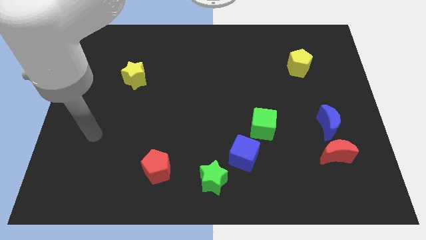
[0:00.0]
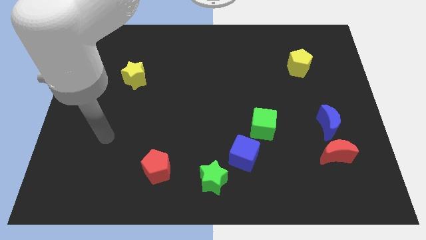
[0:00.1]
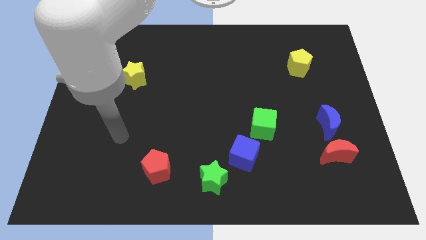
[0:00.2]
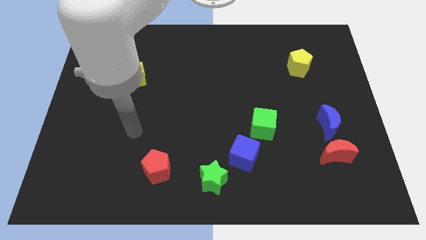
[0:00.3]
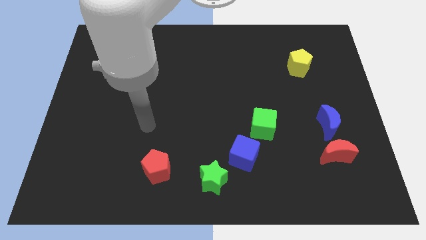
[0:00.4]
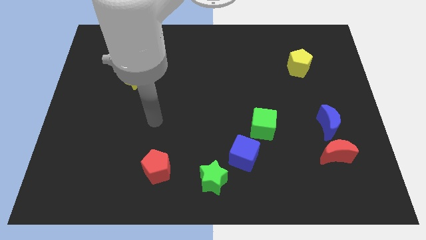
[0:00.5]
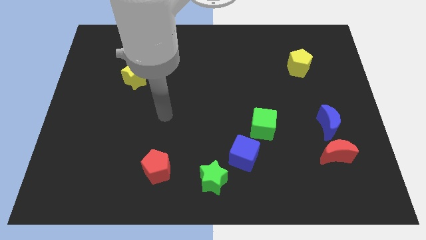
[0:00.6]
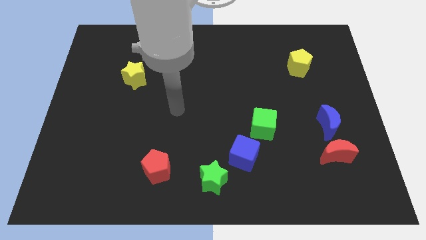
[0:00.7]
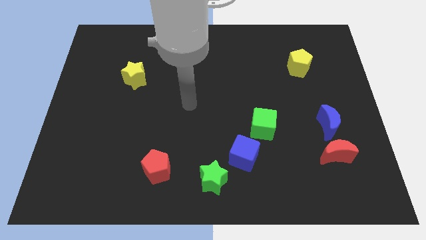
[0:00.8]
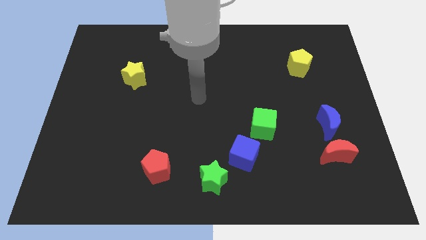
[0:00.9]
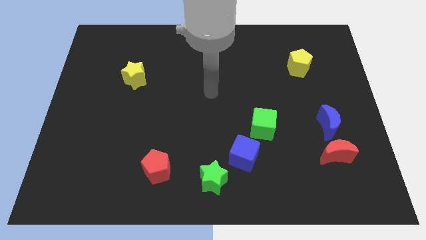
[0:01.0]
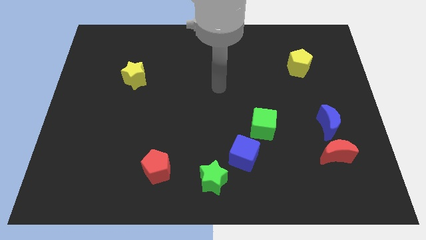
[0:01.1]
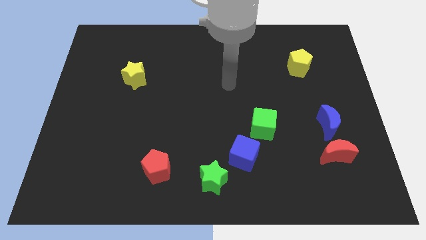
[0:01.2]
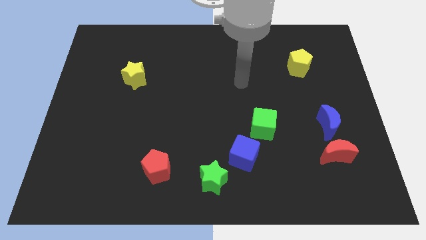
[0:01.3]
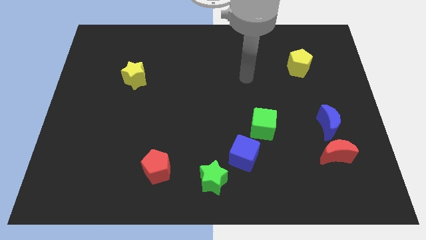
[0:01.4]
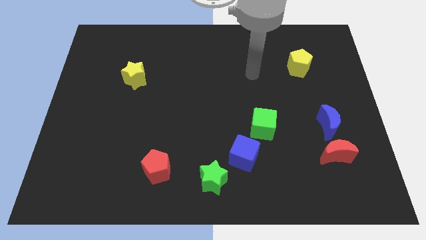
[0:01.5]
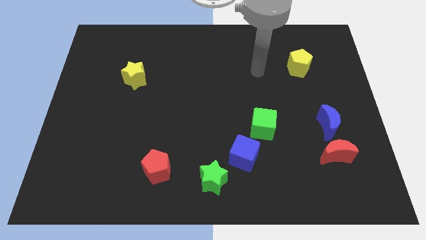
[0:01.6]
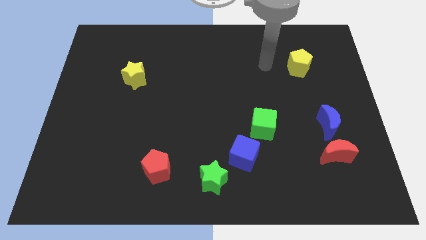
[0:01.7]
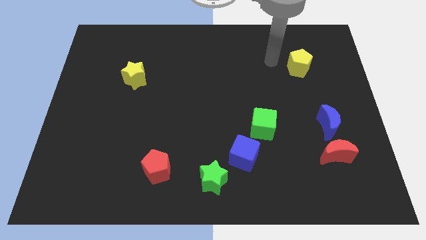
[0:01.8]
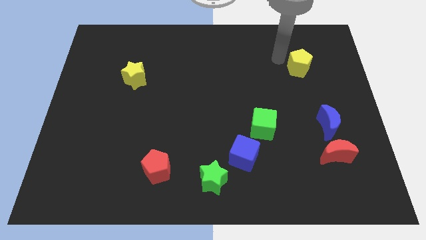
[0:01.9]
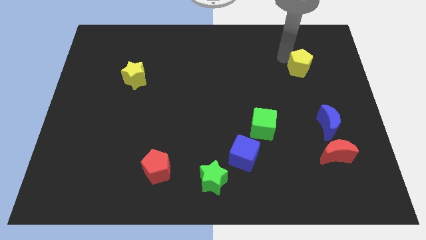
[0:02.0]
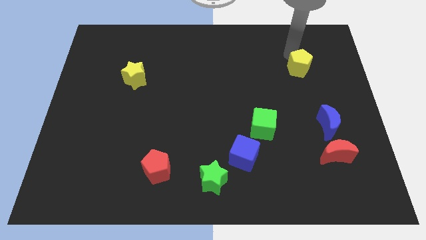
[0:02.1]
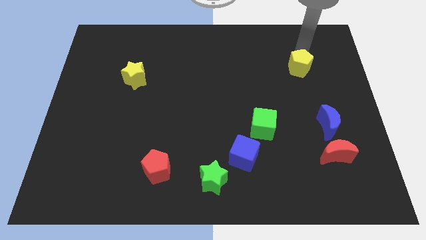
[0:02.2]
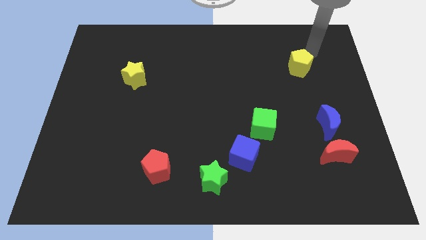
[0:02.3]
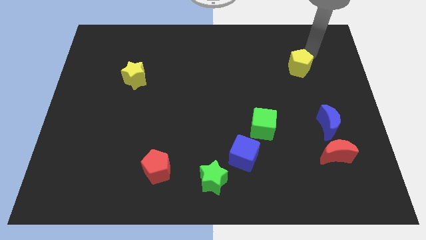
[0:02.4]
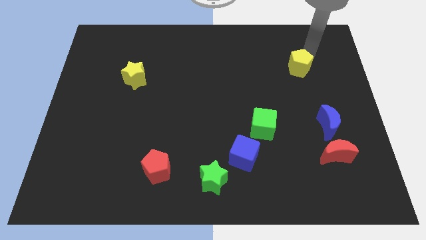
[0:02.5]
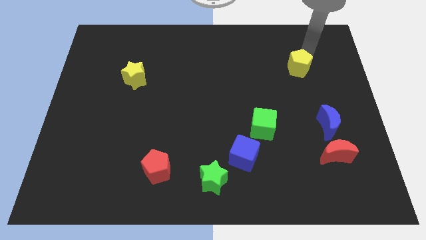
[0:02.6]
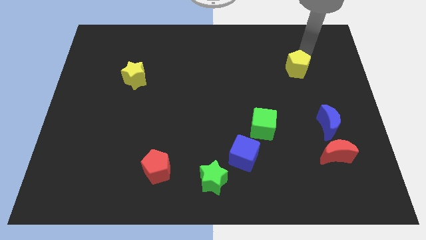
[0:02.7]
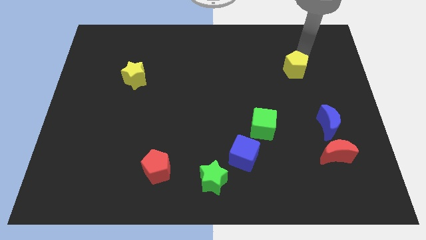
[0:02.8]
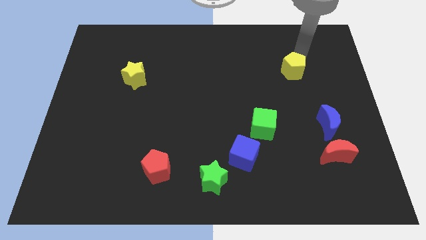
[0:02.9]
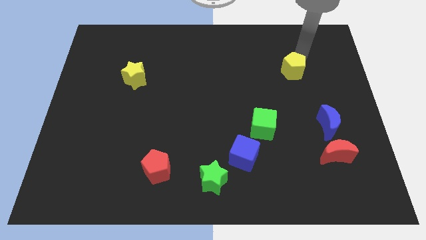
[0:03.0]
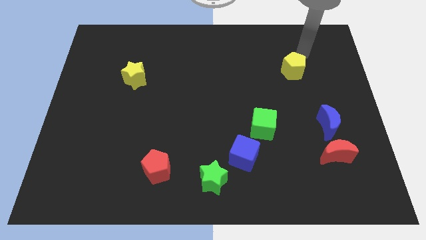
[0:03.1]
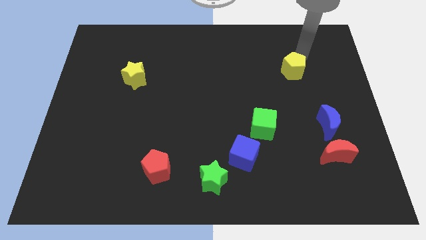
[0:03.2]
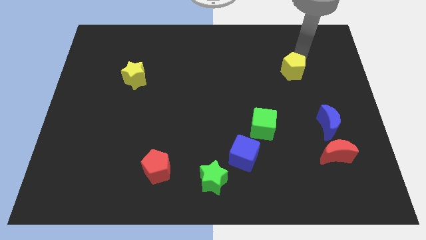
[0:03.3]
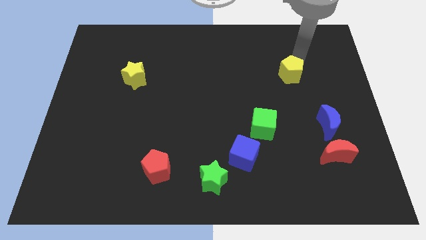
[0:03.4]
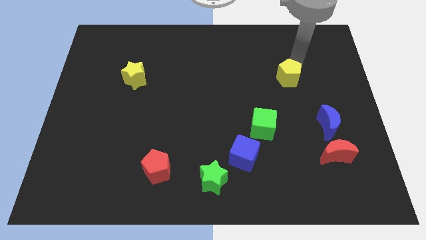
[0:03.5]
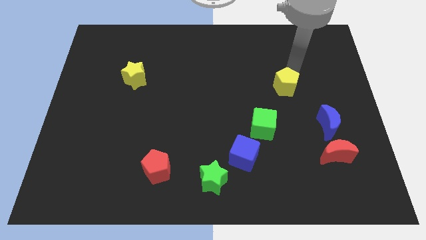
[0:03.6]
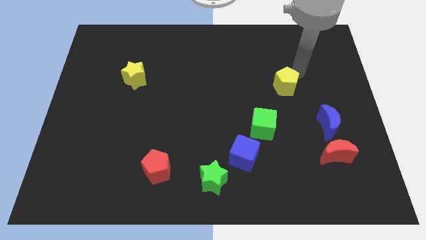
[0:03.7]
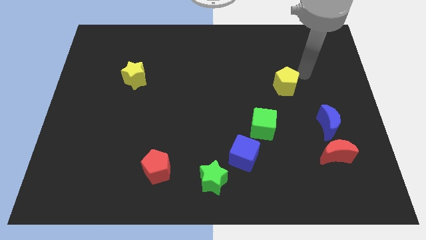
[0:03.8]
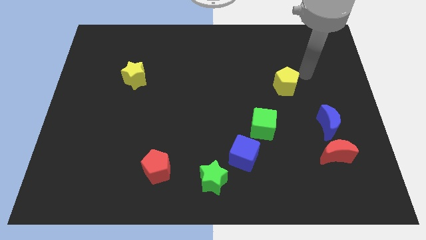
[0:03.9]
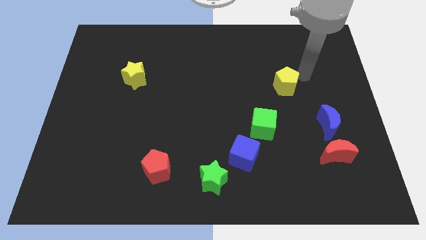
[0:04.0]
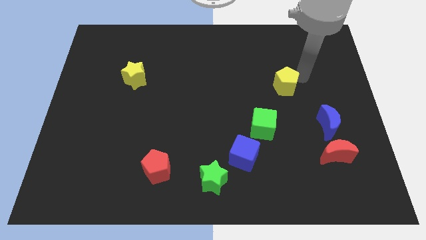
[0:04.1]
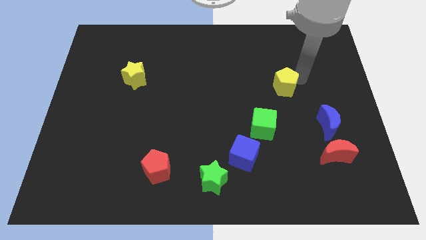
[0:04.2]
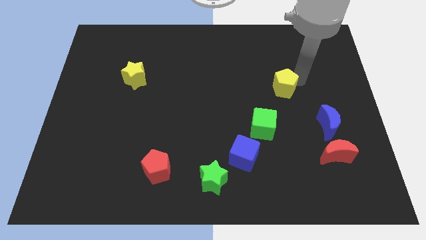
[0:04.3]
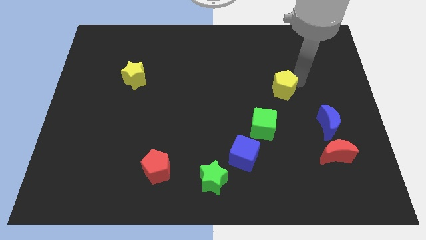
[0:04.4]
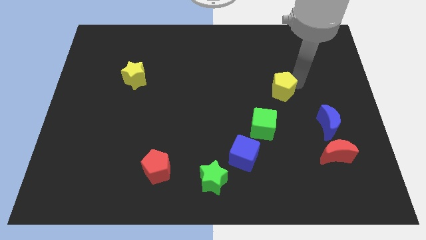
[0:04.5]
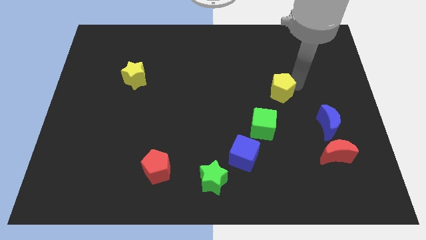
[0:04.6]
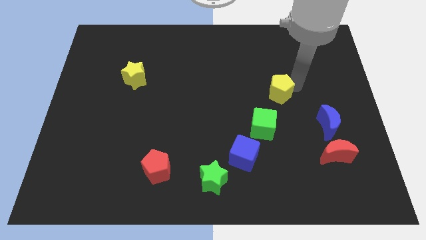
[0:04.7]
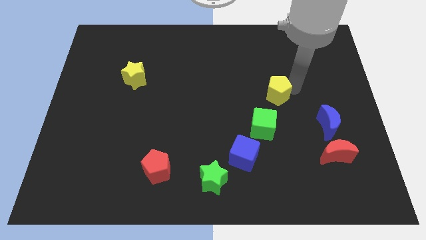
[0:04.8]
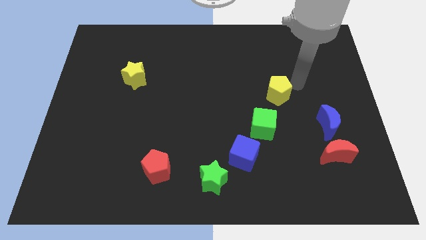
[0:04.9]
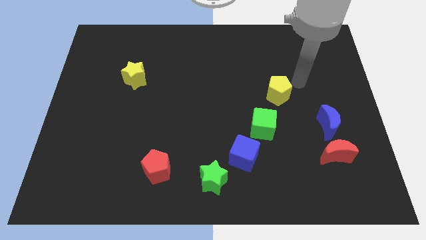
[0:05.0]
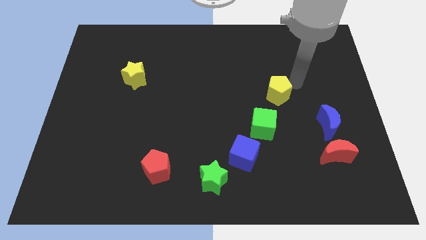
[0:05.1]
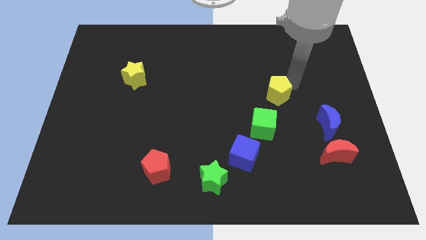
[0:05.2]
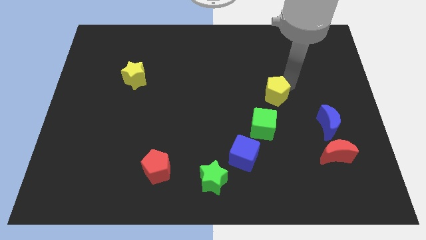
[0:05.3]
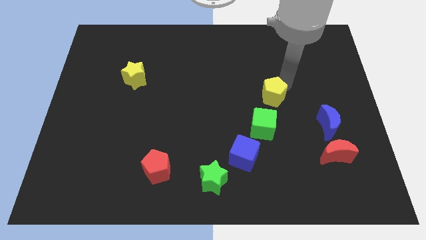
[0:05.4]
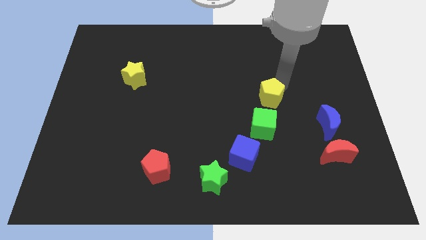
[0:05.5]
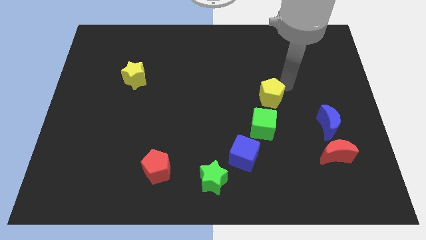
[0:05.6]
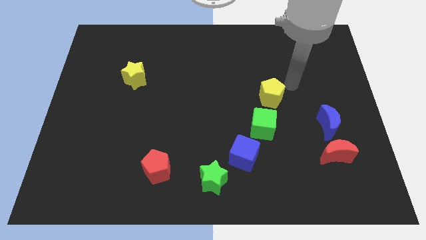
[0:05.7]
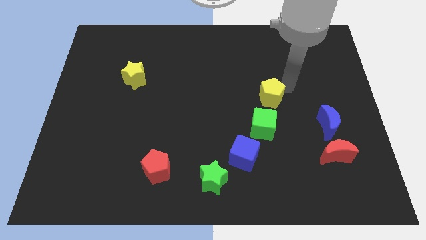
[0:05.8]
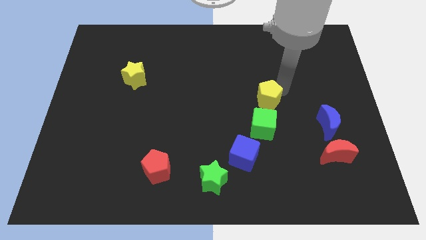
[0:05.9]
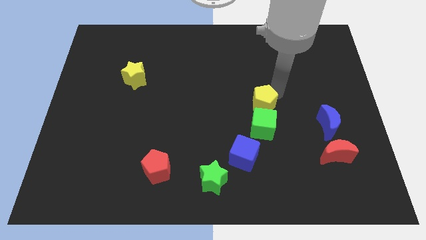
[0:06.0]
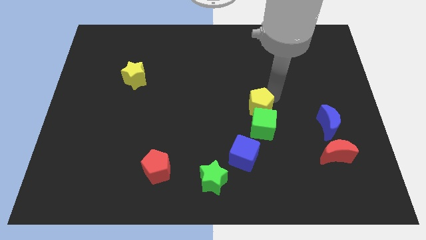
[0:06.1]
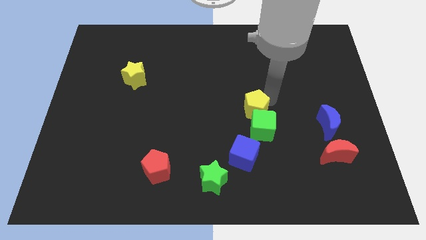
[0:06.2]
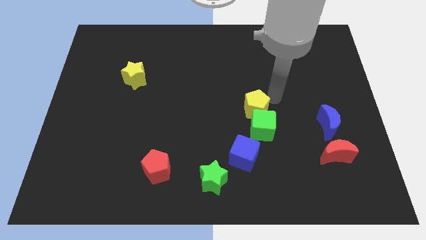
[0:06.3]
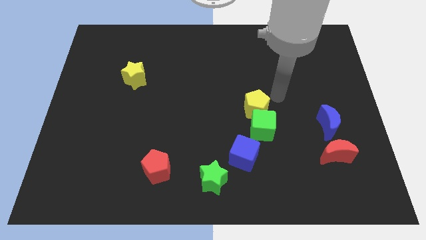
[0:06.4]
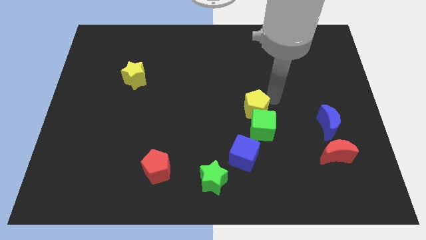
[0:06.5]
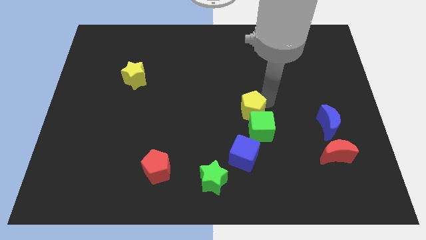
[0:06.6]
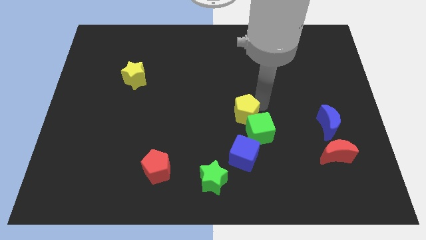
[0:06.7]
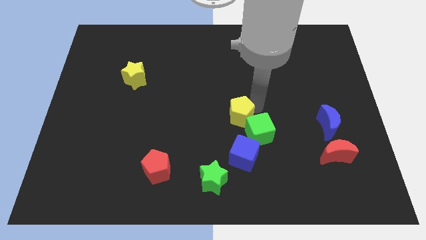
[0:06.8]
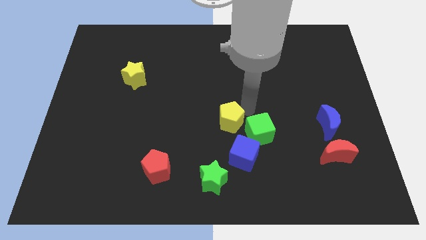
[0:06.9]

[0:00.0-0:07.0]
slide the yellow pentagon to the top left of the blue cube
